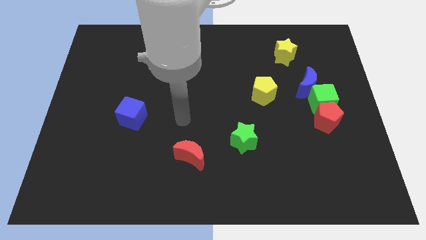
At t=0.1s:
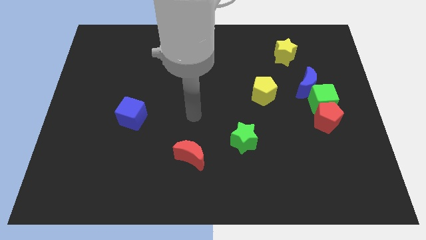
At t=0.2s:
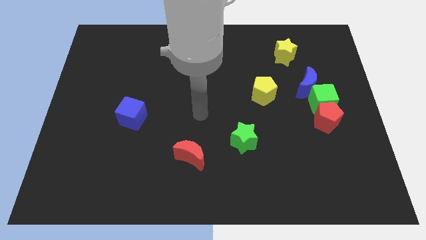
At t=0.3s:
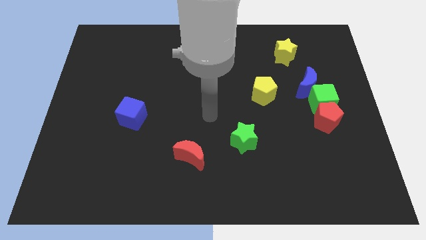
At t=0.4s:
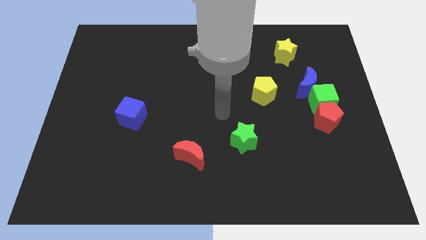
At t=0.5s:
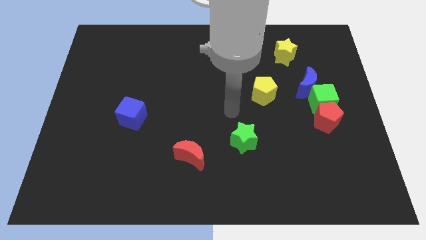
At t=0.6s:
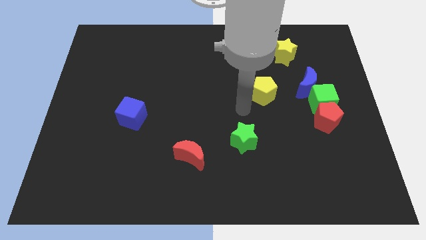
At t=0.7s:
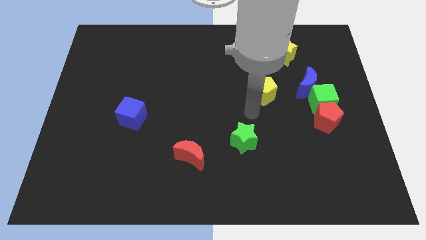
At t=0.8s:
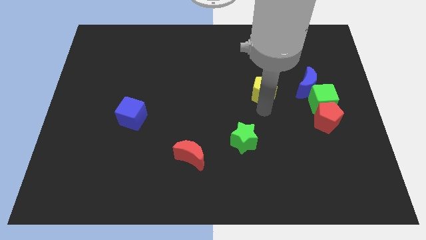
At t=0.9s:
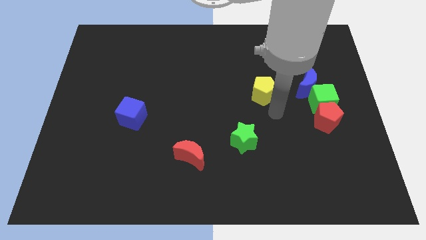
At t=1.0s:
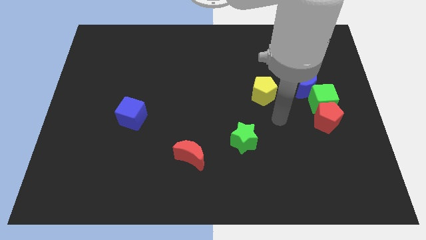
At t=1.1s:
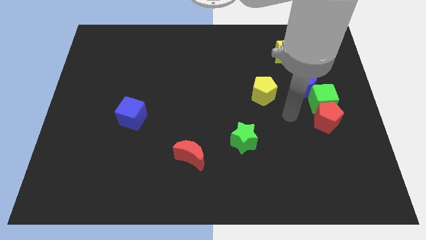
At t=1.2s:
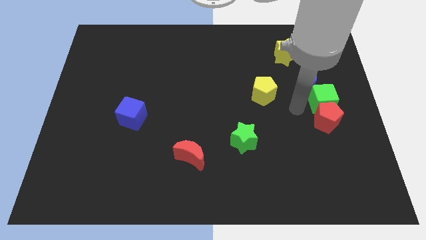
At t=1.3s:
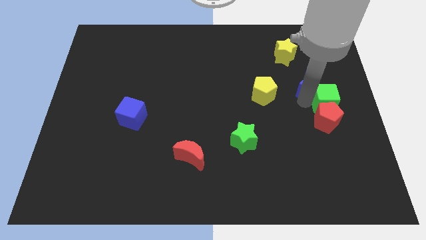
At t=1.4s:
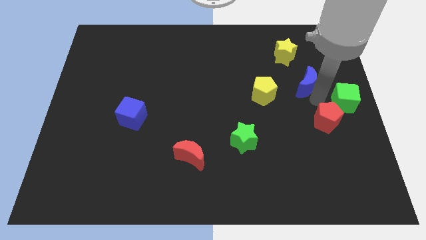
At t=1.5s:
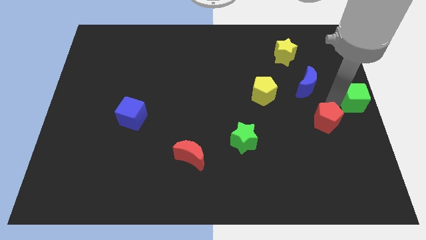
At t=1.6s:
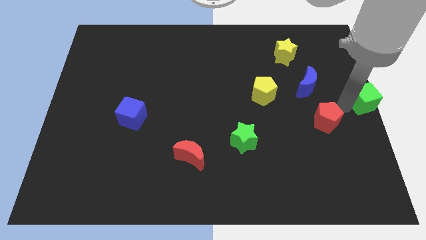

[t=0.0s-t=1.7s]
move the red pentagon away from the green cube

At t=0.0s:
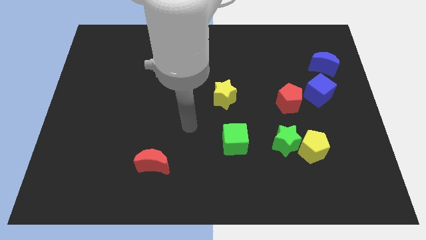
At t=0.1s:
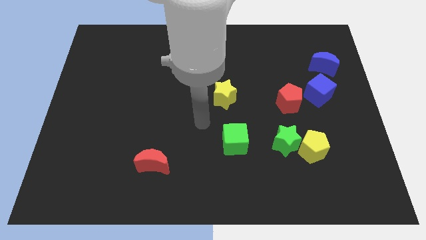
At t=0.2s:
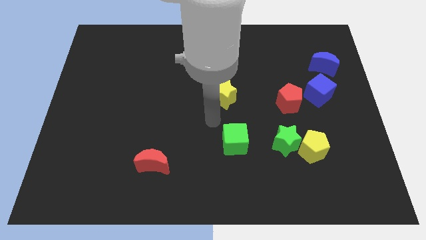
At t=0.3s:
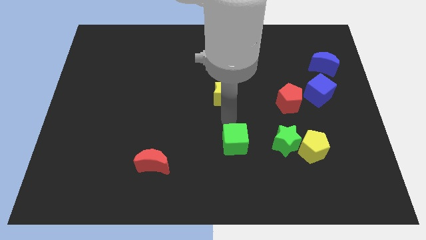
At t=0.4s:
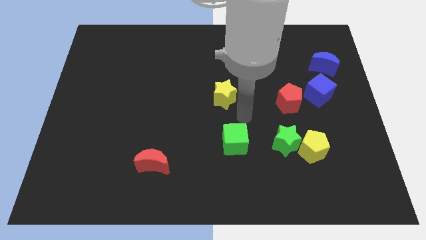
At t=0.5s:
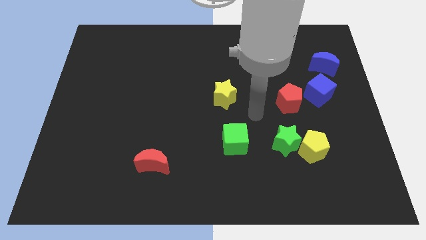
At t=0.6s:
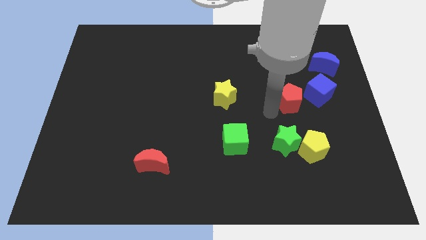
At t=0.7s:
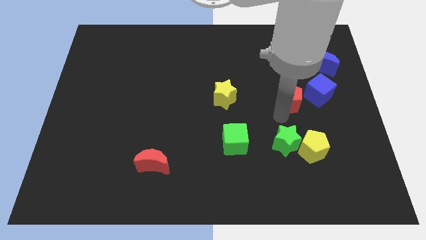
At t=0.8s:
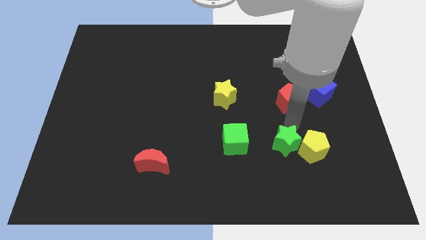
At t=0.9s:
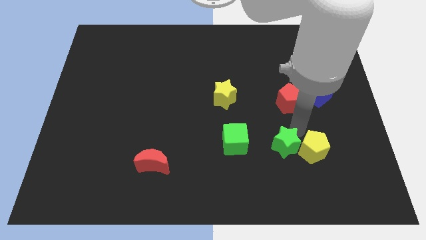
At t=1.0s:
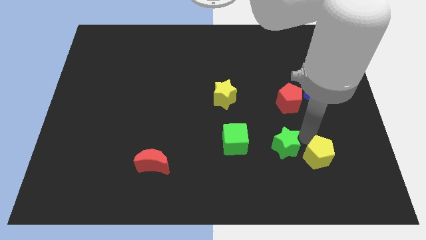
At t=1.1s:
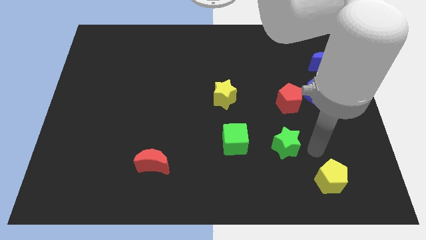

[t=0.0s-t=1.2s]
move the green star away from the yellow pentagon

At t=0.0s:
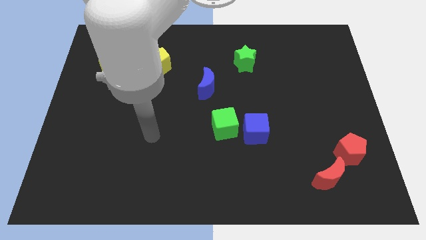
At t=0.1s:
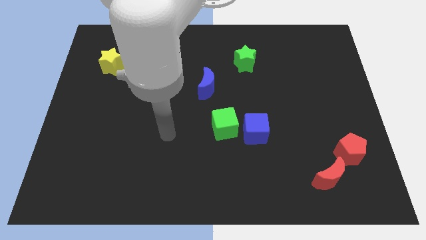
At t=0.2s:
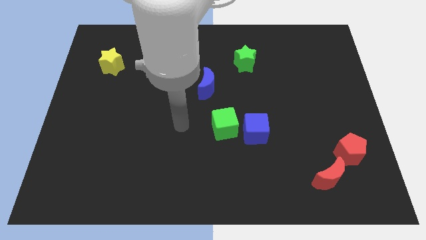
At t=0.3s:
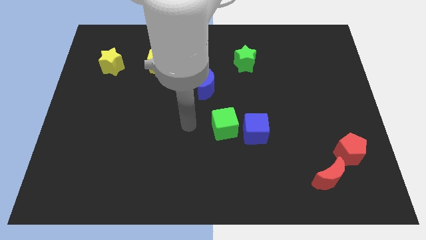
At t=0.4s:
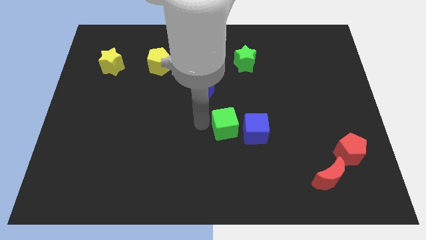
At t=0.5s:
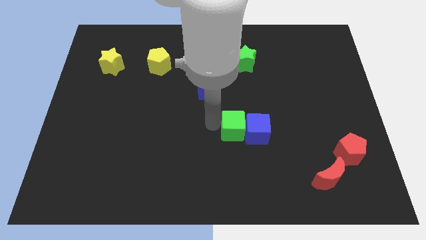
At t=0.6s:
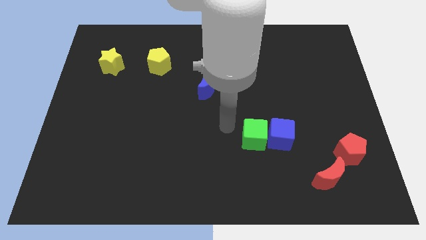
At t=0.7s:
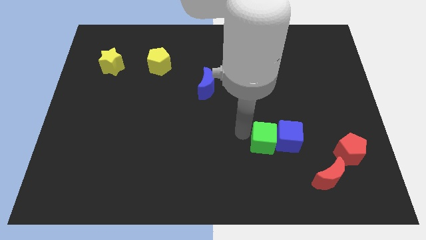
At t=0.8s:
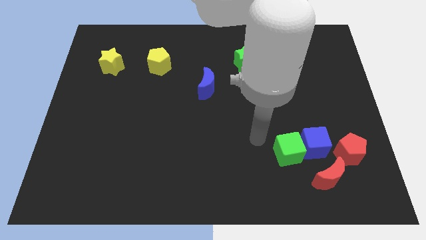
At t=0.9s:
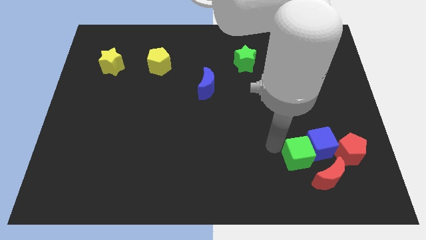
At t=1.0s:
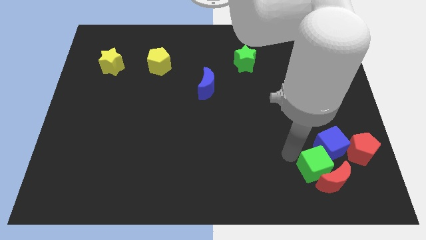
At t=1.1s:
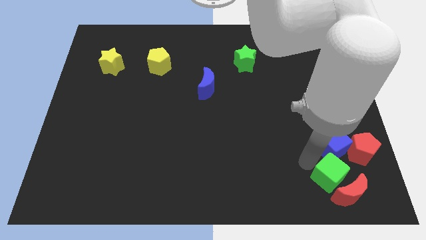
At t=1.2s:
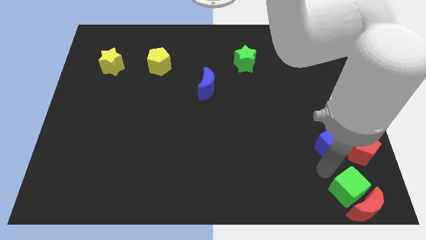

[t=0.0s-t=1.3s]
separate the blue cube from the green cube

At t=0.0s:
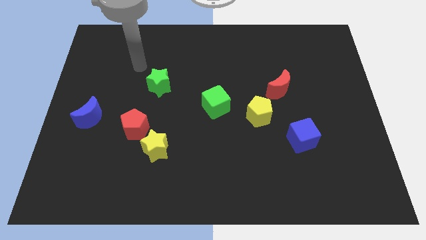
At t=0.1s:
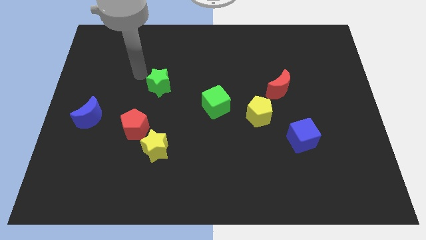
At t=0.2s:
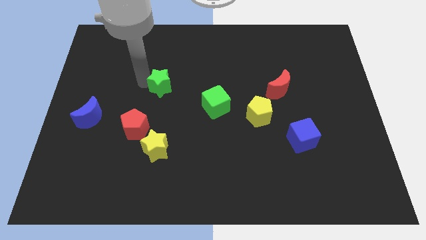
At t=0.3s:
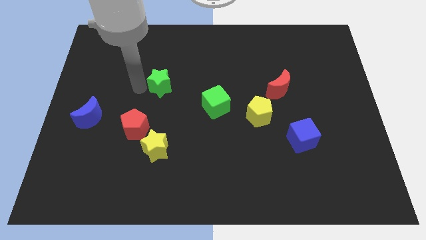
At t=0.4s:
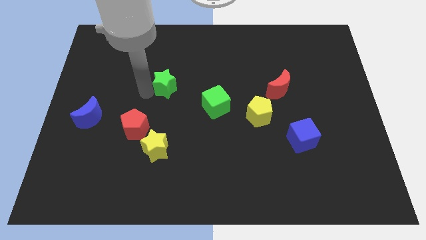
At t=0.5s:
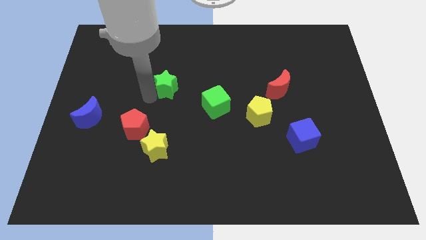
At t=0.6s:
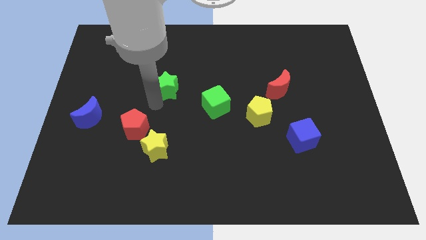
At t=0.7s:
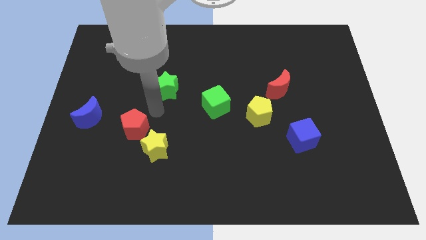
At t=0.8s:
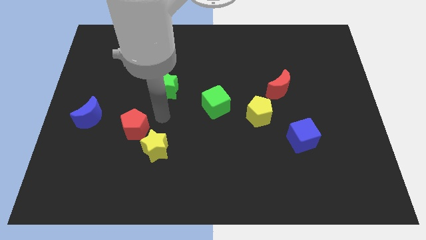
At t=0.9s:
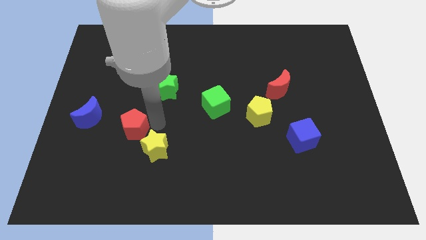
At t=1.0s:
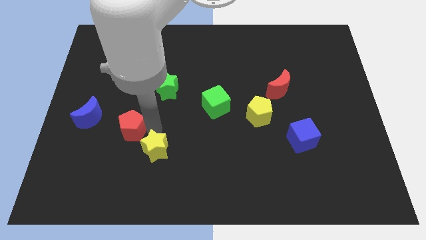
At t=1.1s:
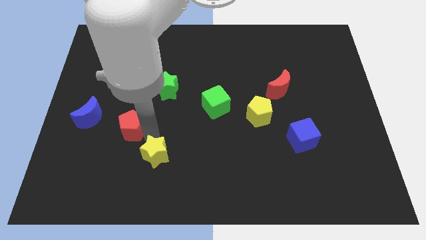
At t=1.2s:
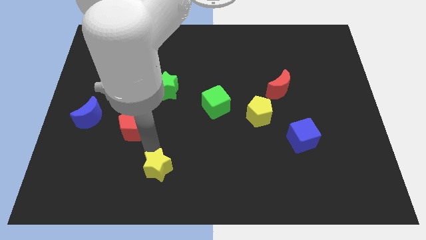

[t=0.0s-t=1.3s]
separate the red pentagon from the yellow star

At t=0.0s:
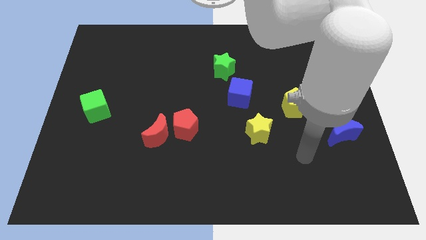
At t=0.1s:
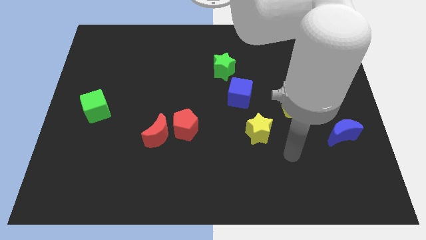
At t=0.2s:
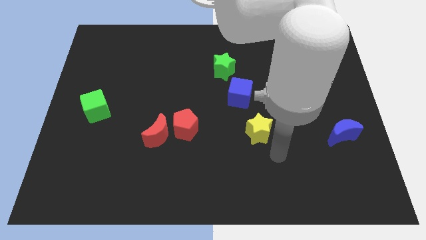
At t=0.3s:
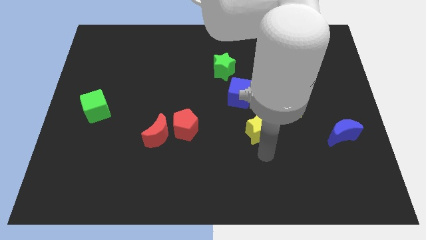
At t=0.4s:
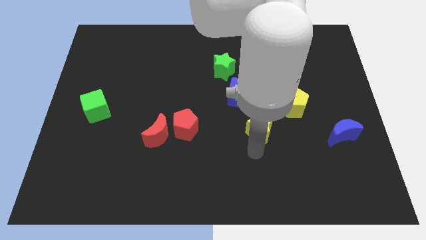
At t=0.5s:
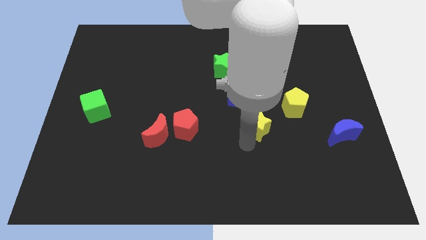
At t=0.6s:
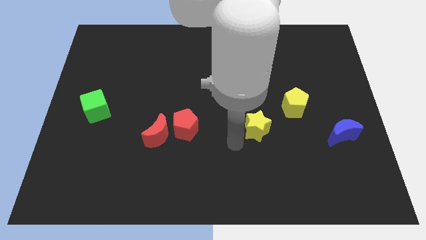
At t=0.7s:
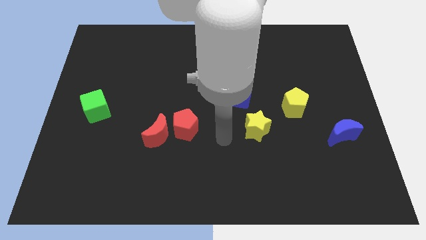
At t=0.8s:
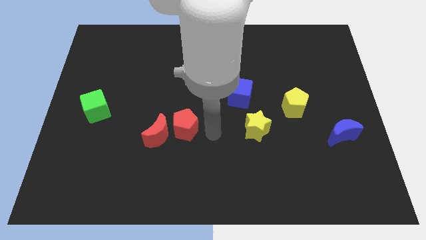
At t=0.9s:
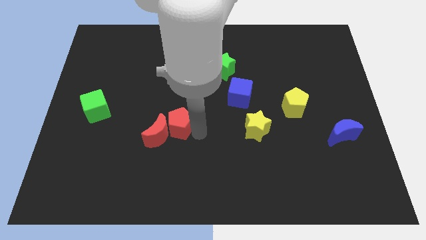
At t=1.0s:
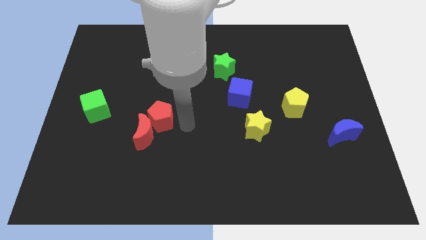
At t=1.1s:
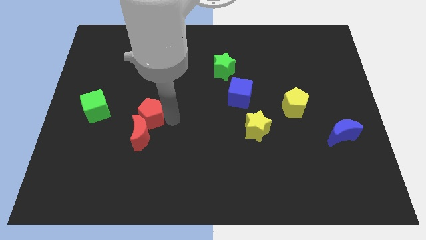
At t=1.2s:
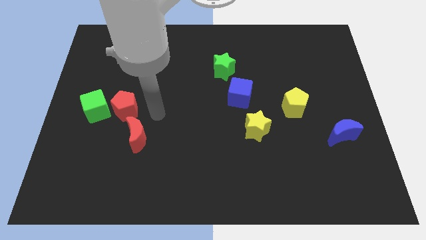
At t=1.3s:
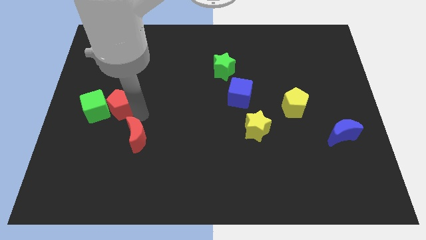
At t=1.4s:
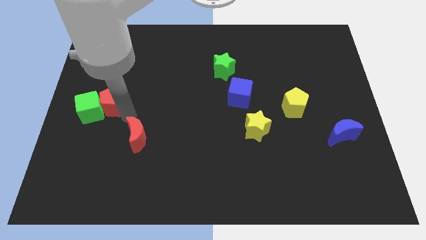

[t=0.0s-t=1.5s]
pull the red moon apart from the red pentagon

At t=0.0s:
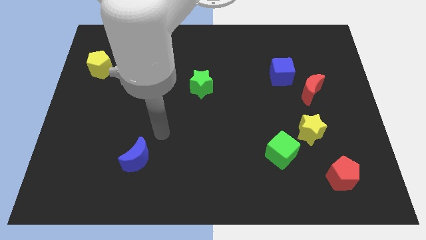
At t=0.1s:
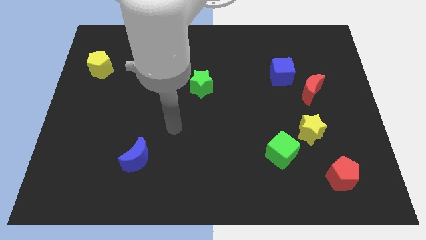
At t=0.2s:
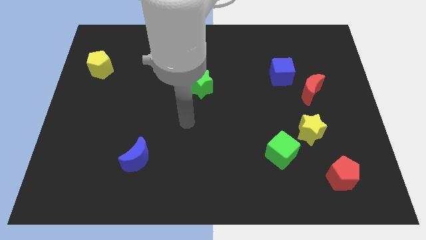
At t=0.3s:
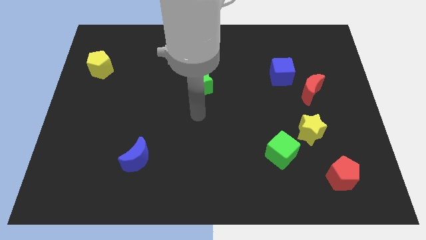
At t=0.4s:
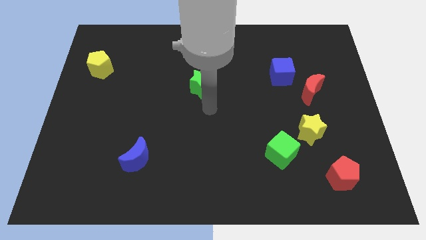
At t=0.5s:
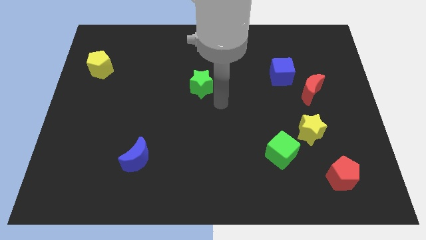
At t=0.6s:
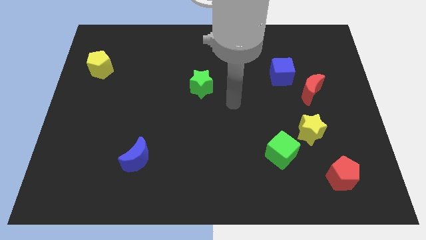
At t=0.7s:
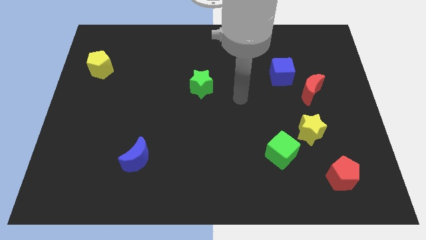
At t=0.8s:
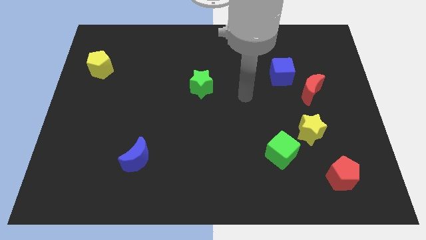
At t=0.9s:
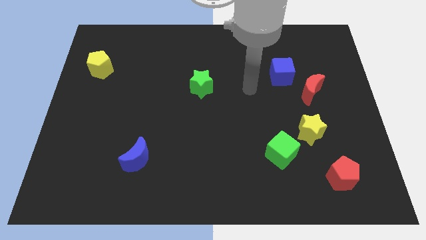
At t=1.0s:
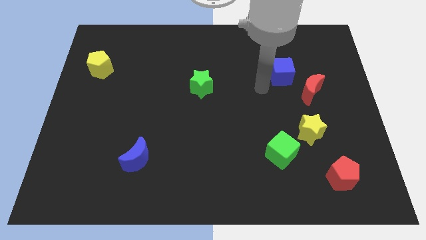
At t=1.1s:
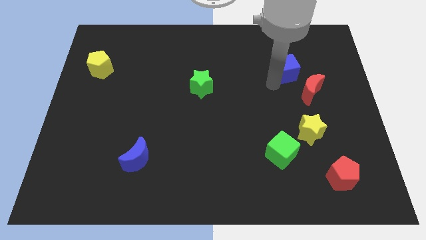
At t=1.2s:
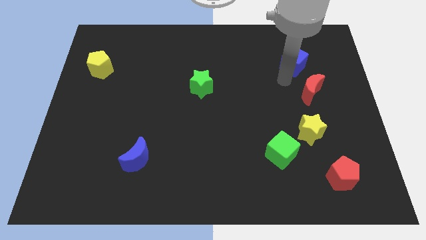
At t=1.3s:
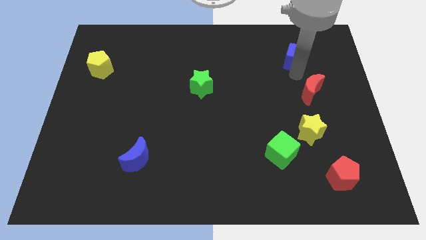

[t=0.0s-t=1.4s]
pull the red moon apart from the blue cube

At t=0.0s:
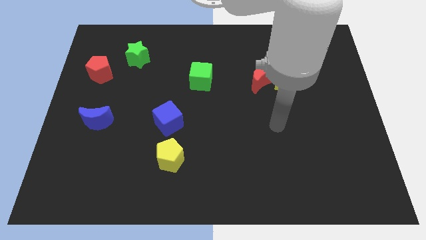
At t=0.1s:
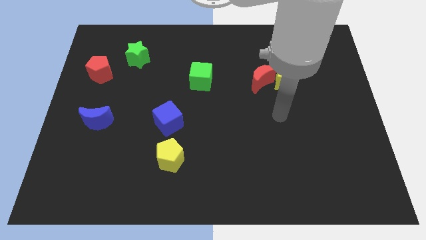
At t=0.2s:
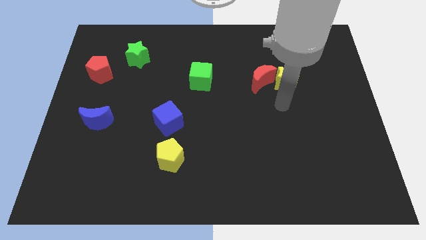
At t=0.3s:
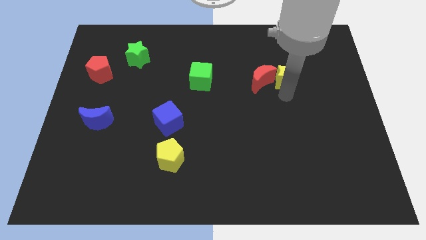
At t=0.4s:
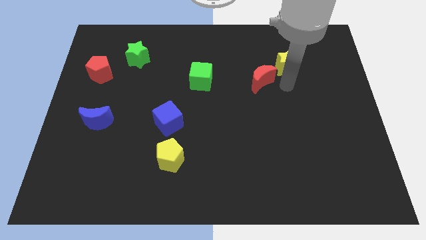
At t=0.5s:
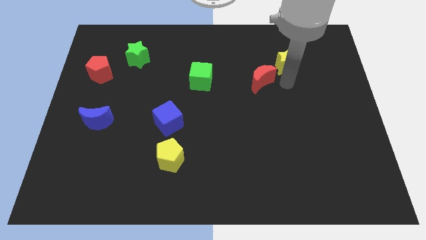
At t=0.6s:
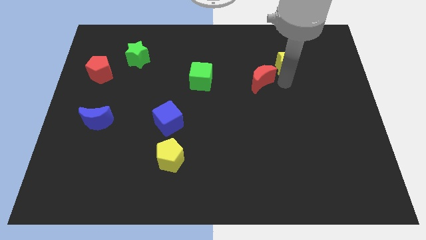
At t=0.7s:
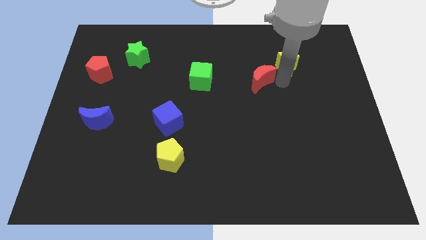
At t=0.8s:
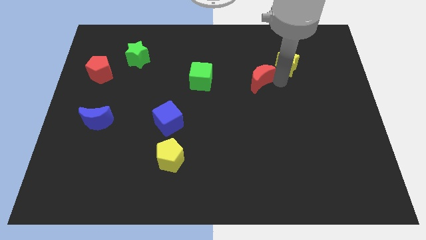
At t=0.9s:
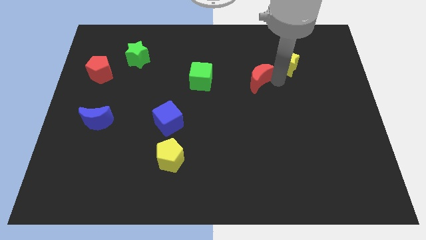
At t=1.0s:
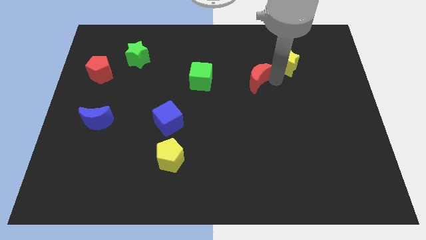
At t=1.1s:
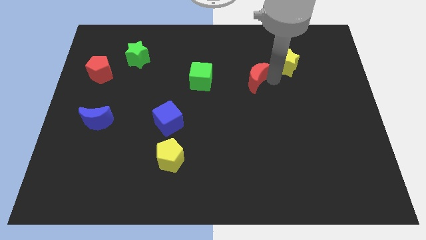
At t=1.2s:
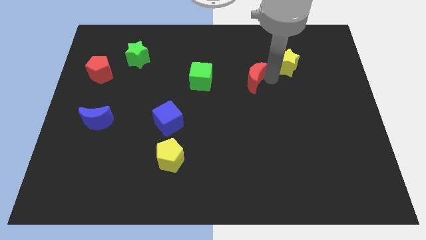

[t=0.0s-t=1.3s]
move the red moon away from the yellow star
